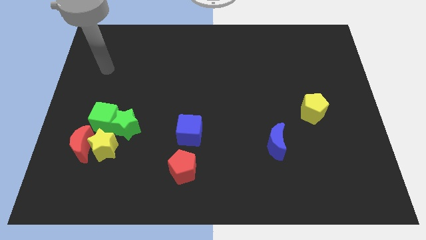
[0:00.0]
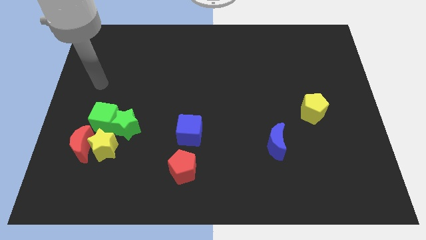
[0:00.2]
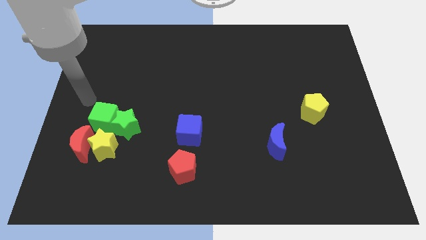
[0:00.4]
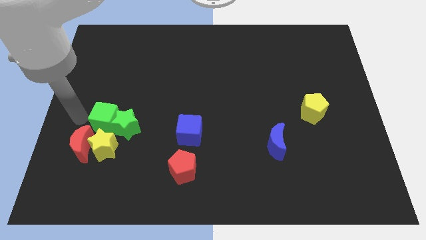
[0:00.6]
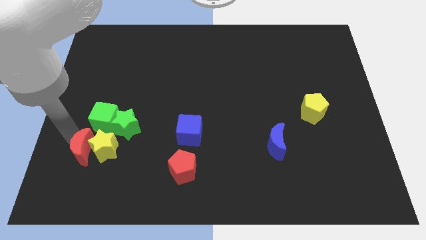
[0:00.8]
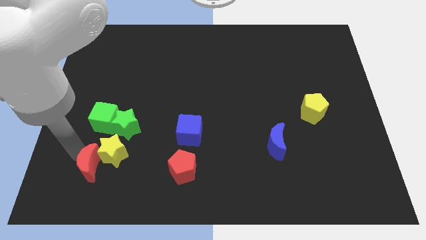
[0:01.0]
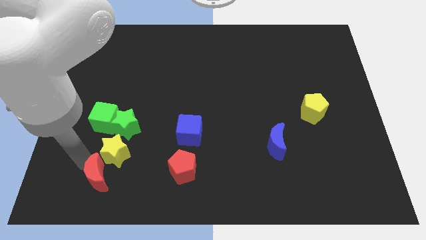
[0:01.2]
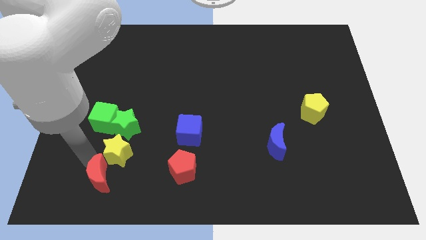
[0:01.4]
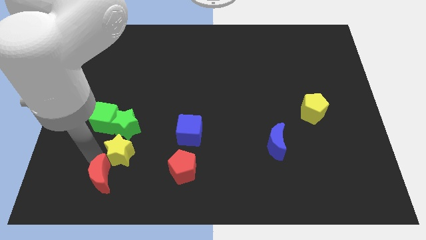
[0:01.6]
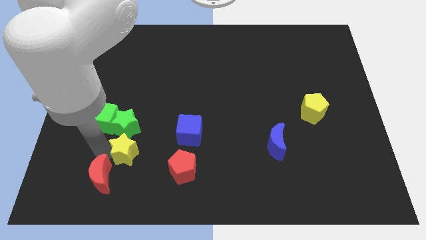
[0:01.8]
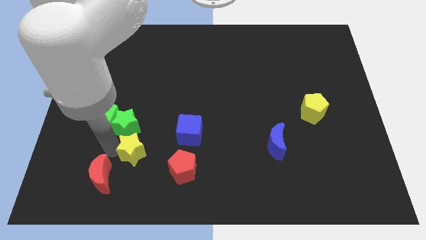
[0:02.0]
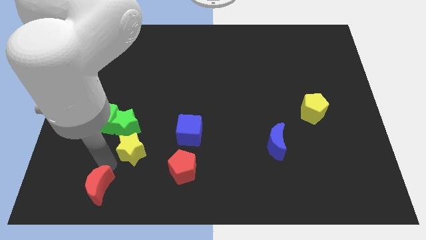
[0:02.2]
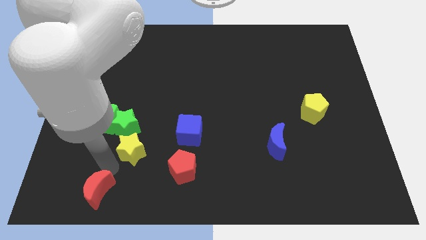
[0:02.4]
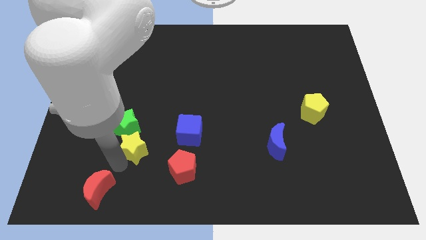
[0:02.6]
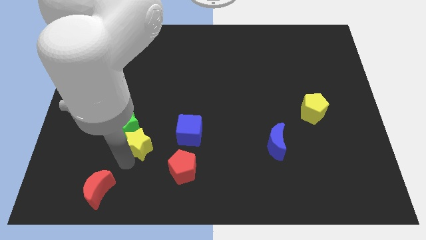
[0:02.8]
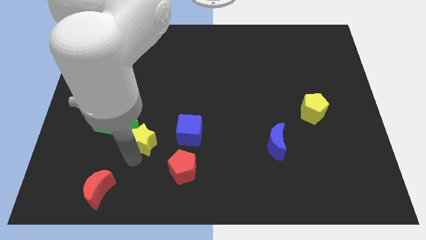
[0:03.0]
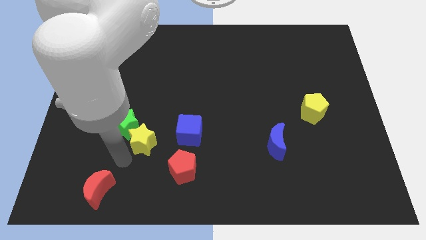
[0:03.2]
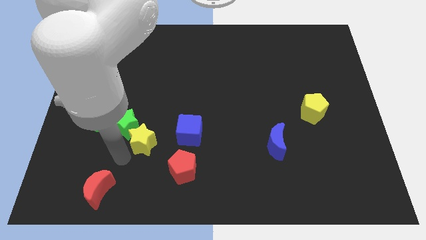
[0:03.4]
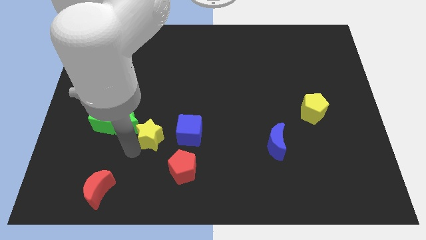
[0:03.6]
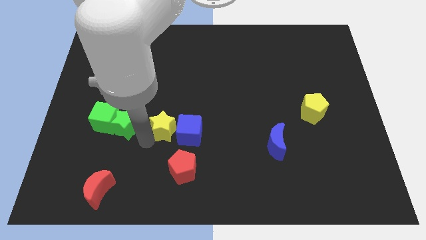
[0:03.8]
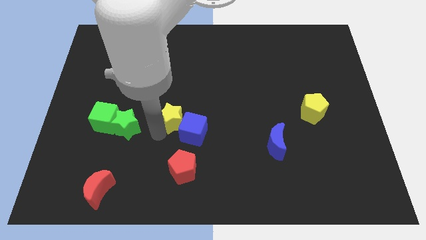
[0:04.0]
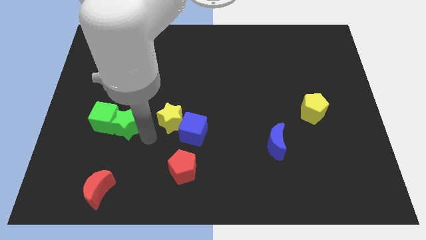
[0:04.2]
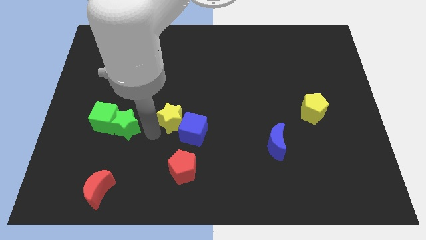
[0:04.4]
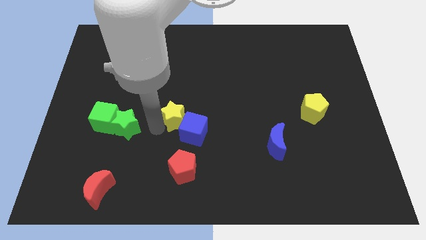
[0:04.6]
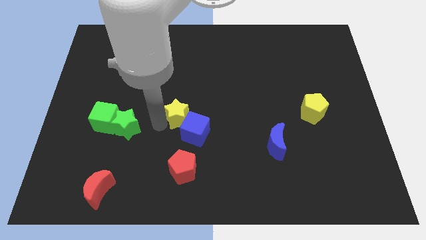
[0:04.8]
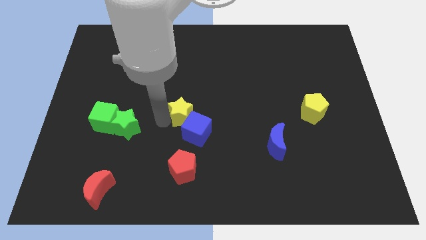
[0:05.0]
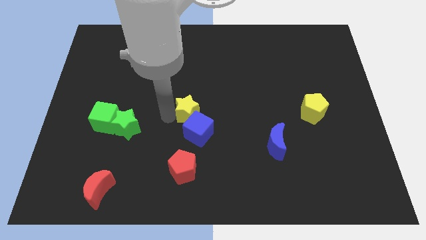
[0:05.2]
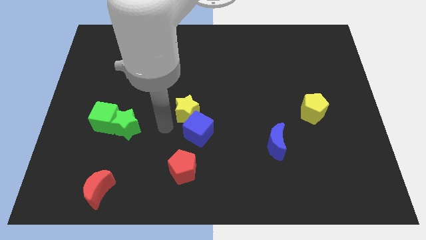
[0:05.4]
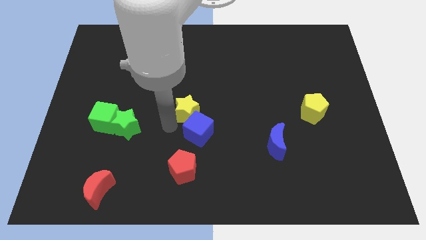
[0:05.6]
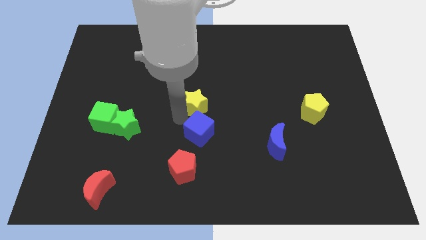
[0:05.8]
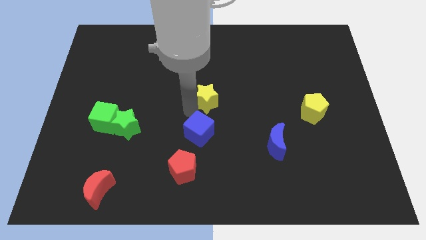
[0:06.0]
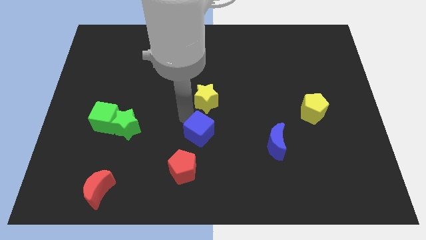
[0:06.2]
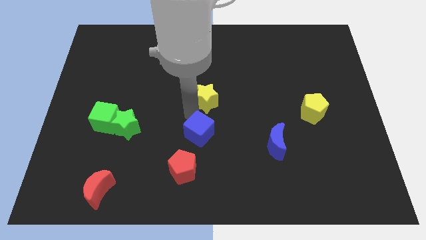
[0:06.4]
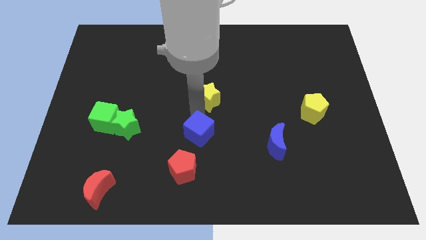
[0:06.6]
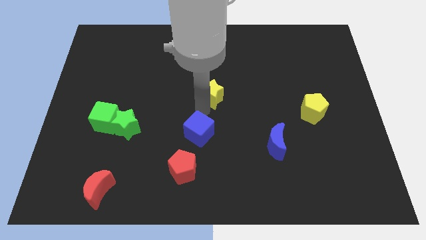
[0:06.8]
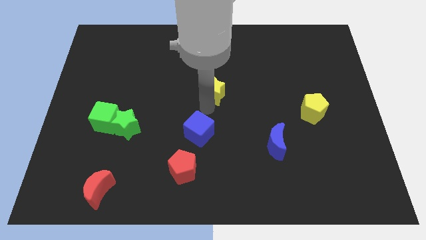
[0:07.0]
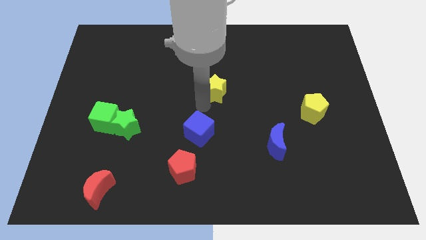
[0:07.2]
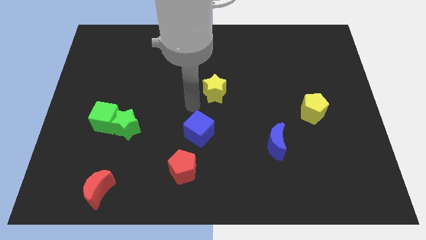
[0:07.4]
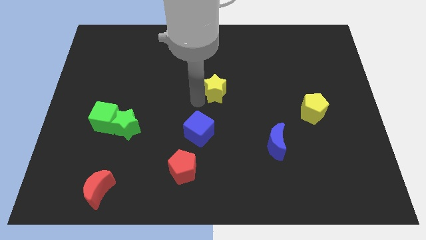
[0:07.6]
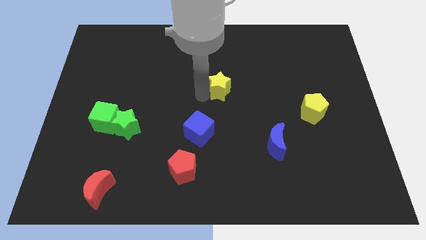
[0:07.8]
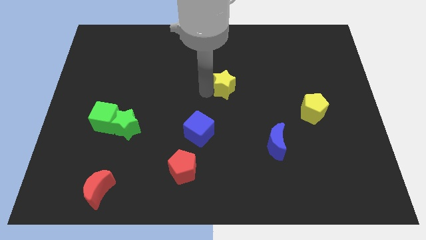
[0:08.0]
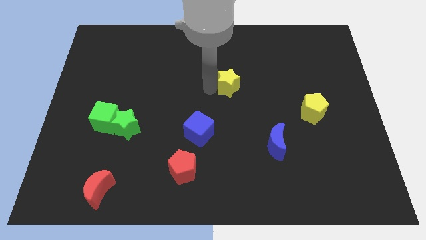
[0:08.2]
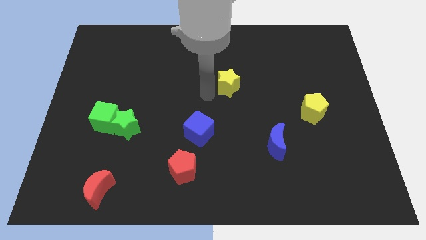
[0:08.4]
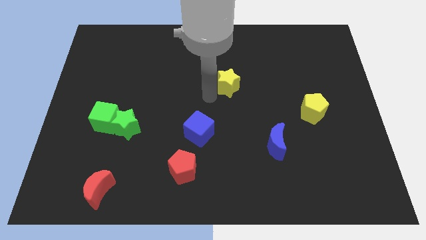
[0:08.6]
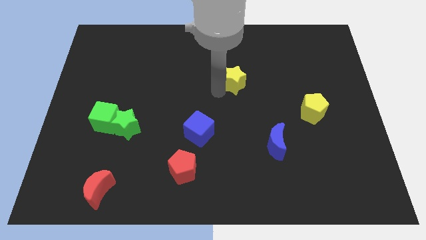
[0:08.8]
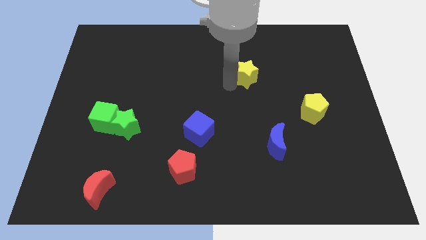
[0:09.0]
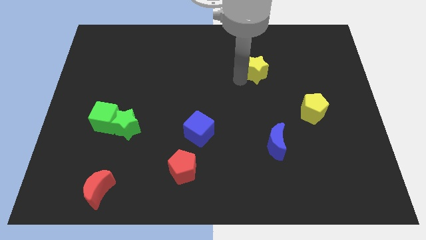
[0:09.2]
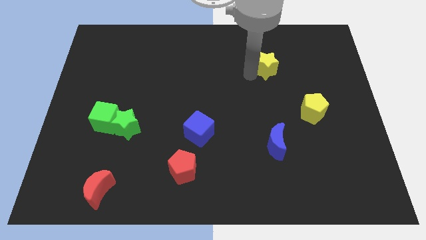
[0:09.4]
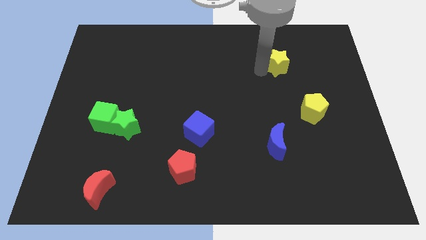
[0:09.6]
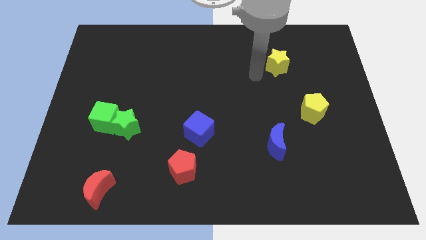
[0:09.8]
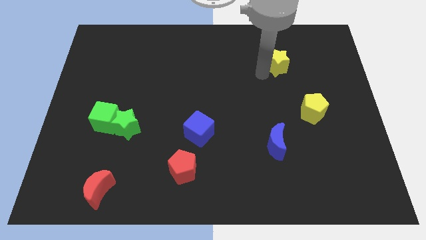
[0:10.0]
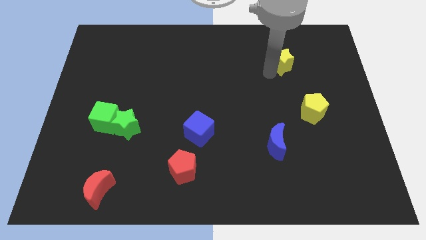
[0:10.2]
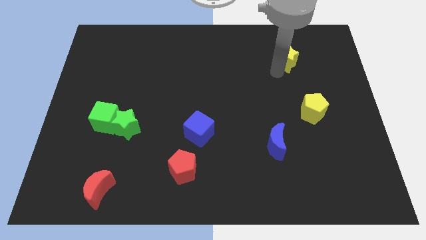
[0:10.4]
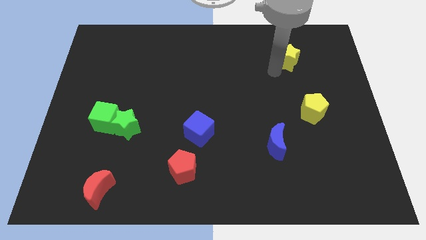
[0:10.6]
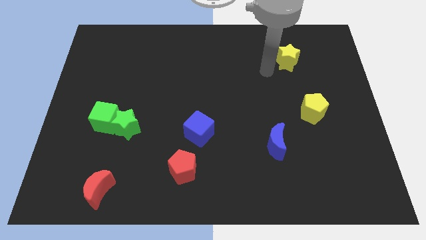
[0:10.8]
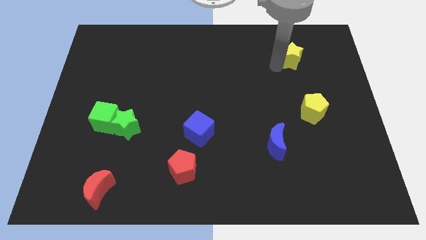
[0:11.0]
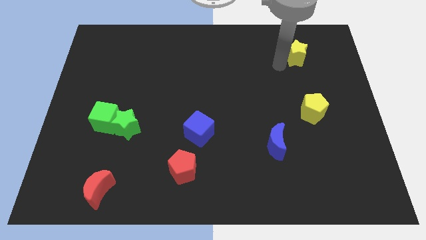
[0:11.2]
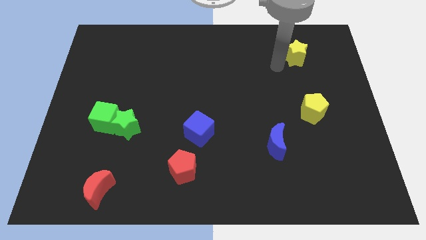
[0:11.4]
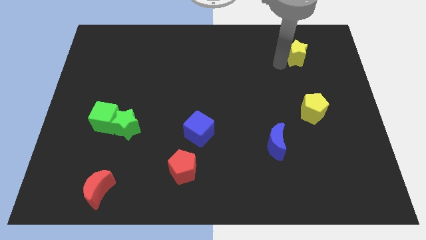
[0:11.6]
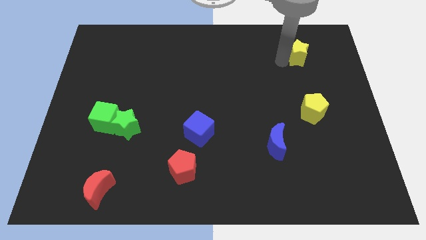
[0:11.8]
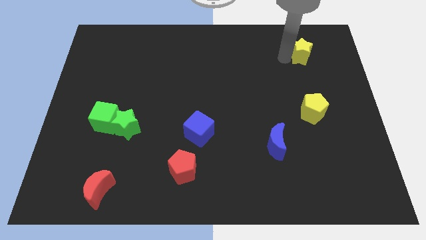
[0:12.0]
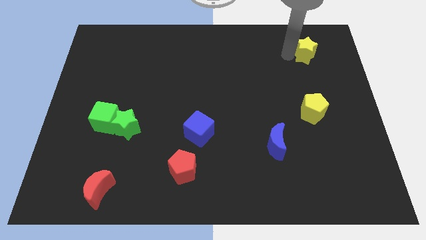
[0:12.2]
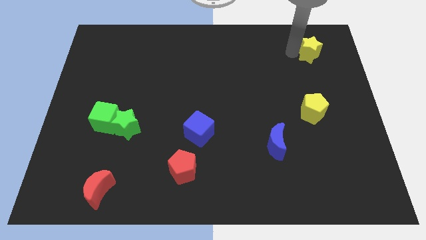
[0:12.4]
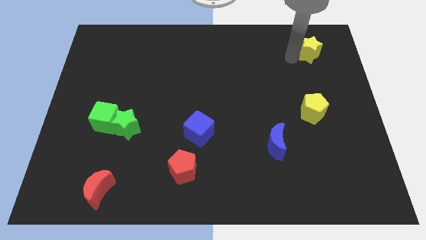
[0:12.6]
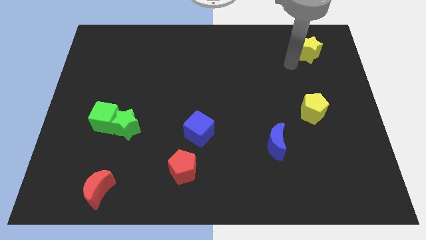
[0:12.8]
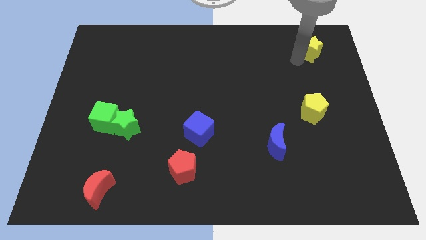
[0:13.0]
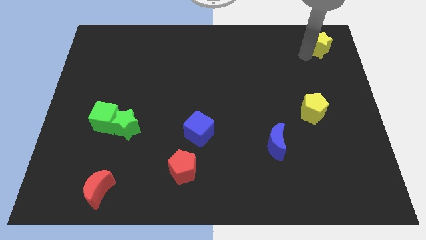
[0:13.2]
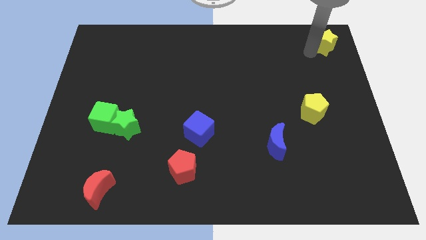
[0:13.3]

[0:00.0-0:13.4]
move the yellow star to the top right of the board

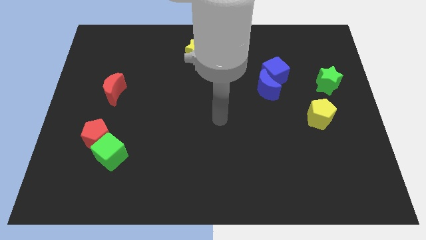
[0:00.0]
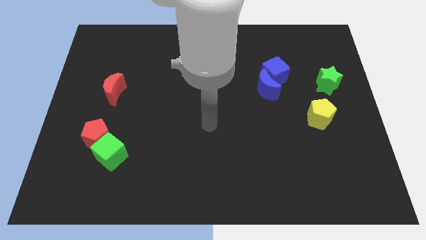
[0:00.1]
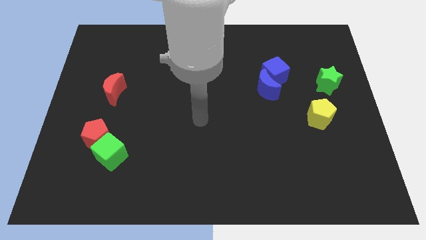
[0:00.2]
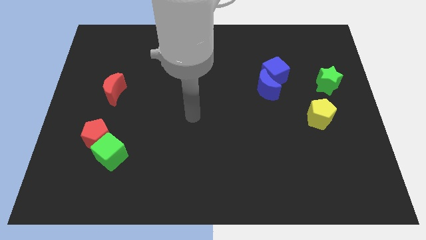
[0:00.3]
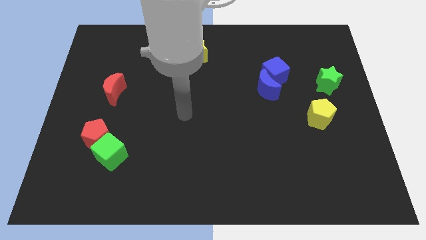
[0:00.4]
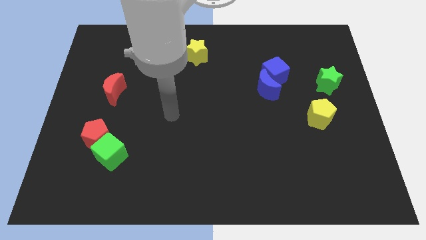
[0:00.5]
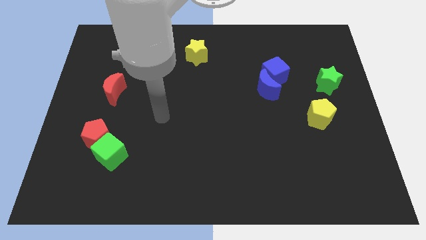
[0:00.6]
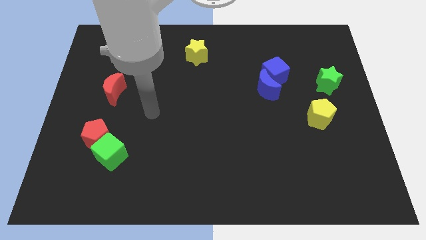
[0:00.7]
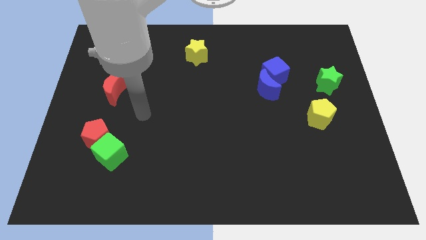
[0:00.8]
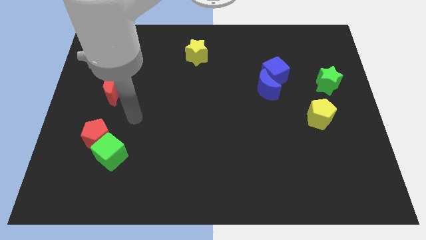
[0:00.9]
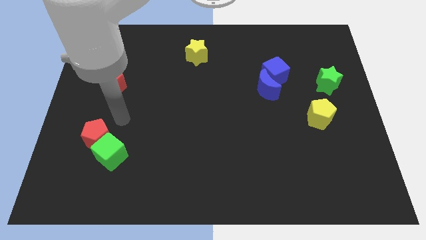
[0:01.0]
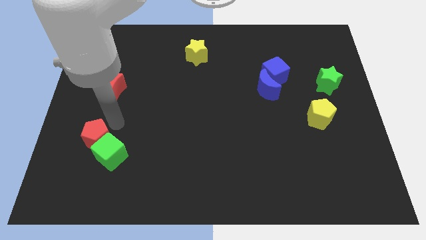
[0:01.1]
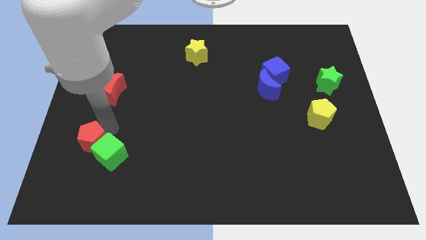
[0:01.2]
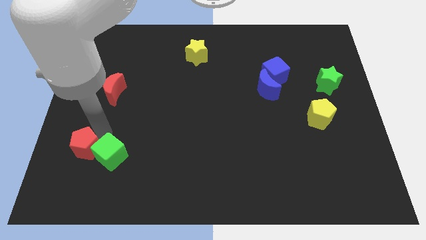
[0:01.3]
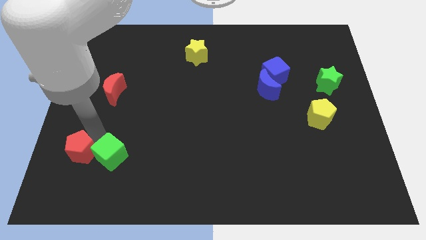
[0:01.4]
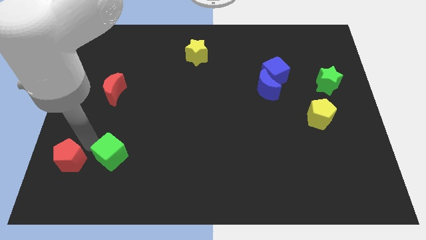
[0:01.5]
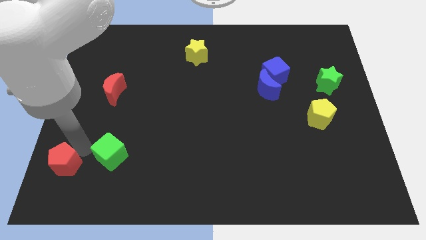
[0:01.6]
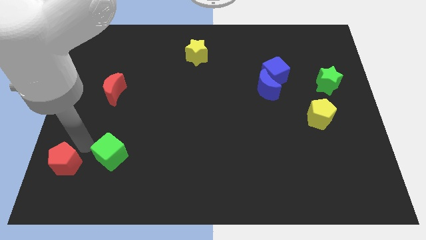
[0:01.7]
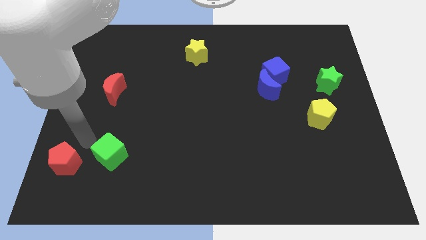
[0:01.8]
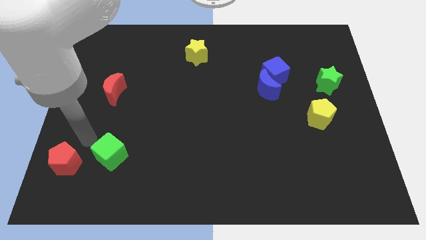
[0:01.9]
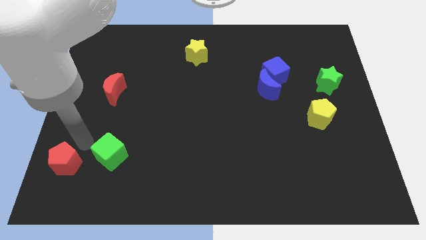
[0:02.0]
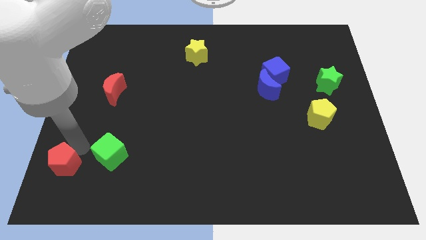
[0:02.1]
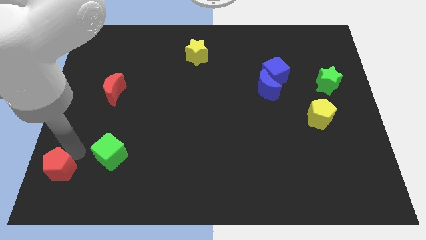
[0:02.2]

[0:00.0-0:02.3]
slide the red pentagon to the bottom left corner
